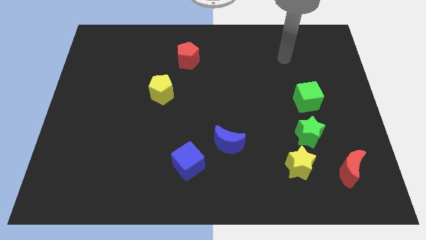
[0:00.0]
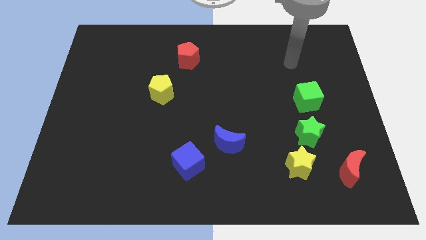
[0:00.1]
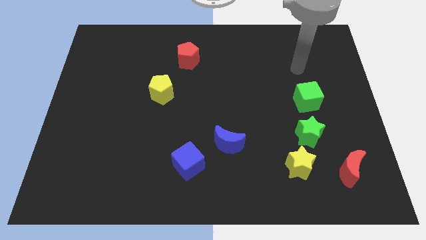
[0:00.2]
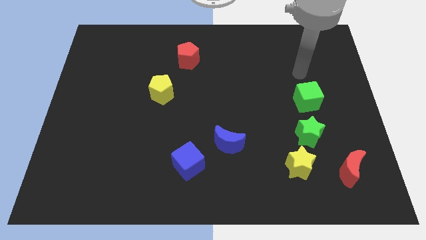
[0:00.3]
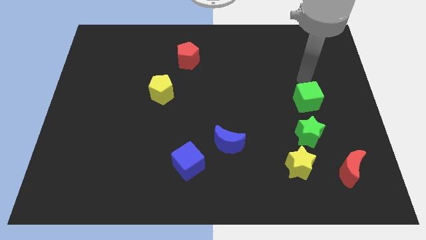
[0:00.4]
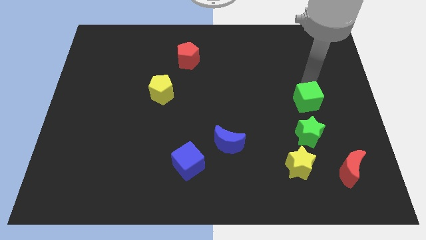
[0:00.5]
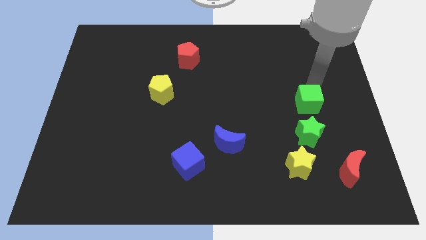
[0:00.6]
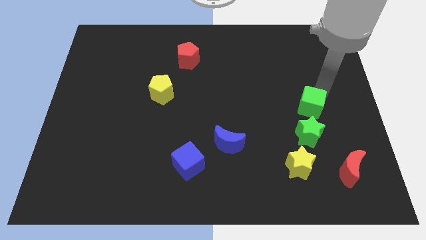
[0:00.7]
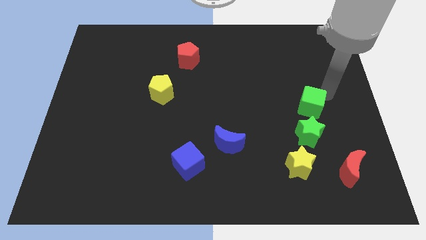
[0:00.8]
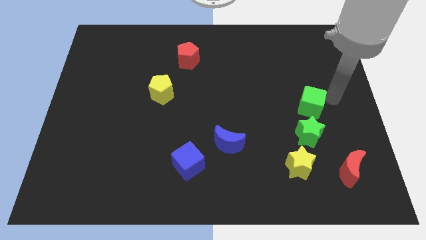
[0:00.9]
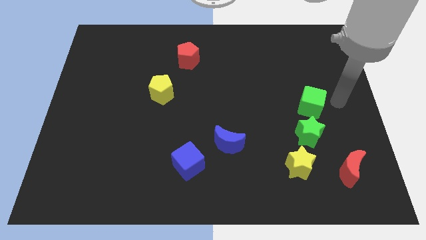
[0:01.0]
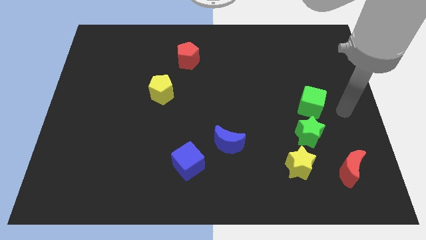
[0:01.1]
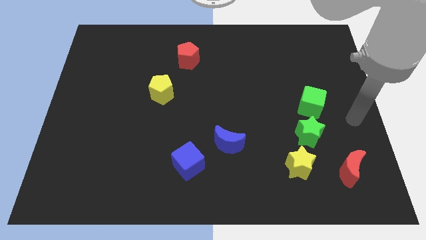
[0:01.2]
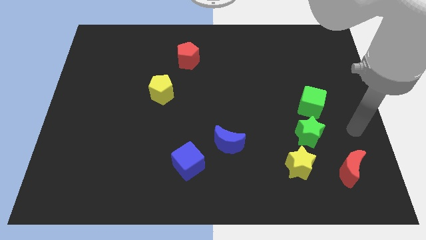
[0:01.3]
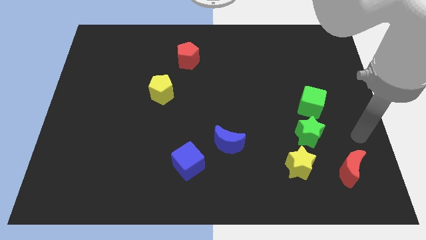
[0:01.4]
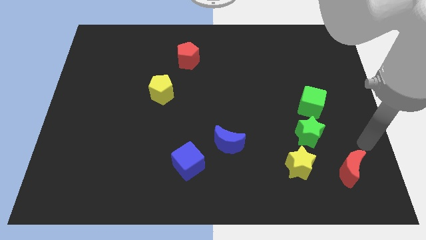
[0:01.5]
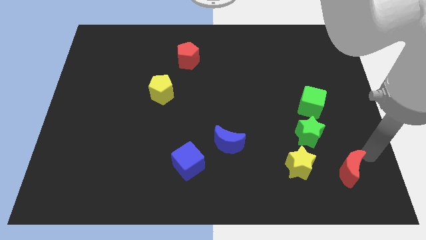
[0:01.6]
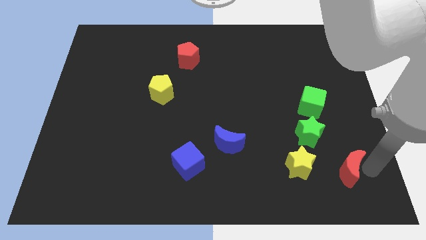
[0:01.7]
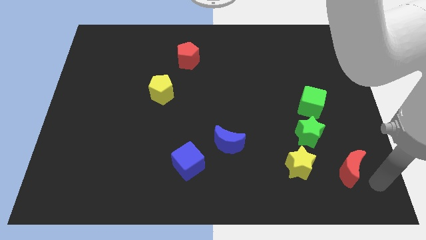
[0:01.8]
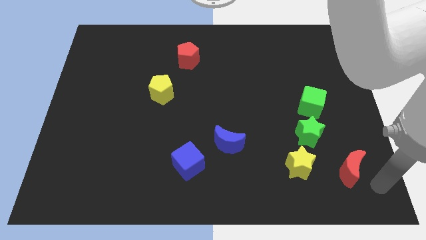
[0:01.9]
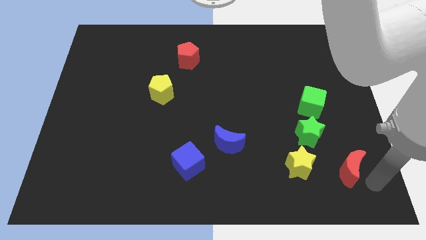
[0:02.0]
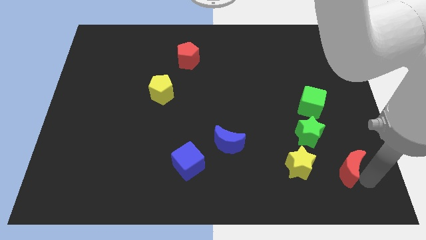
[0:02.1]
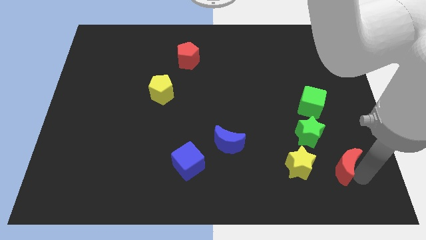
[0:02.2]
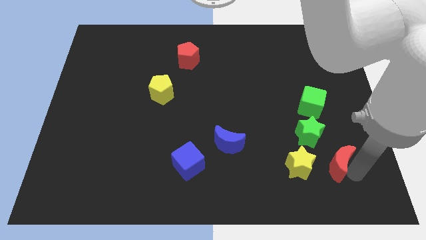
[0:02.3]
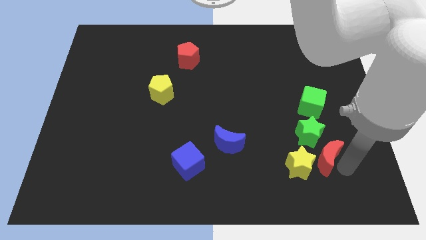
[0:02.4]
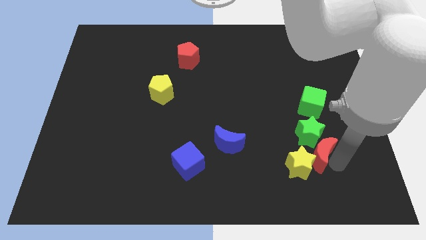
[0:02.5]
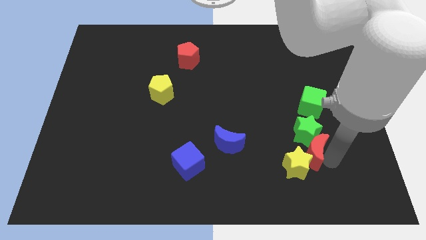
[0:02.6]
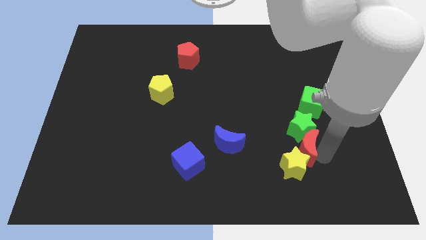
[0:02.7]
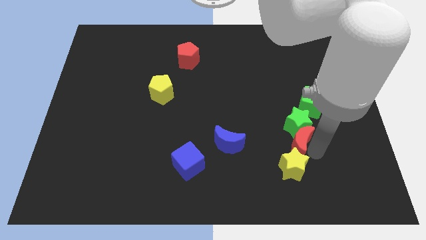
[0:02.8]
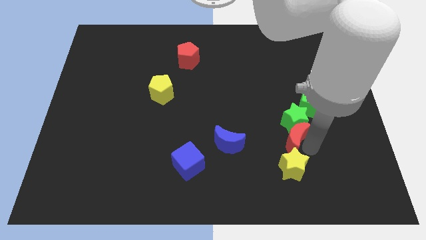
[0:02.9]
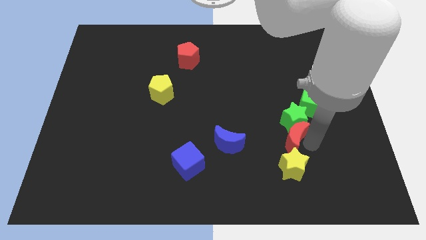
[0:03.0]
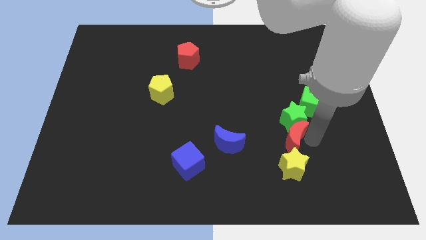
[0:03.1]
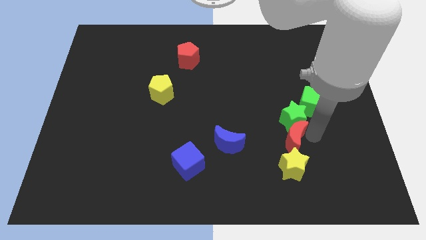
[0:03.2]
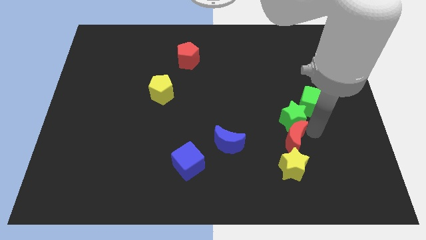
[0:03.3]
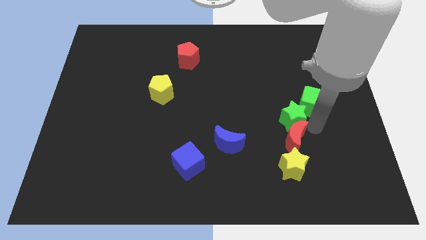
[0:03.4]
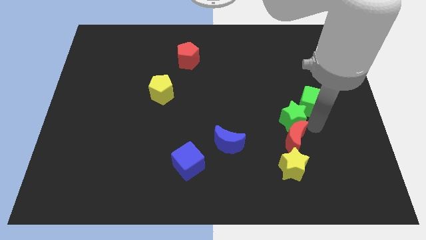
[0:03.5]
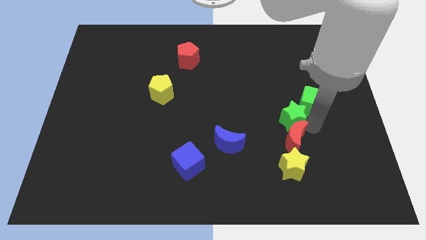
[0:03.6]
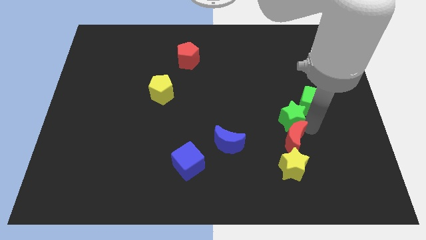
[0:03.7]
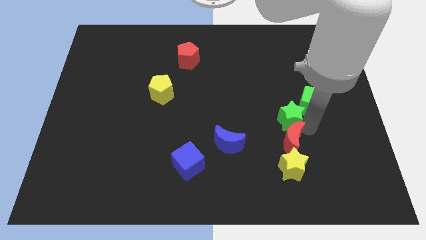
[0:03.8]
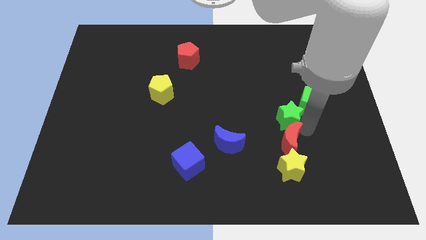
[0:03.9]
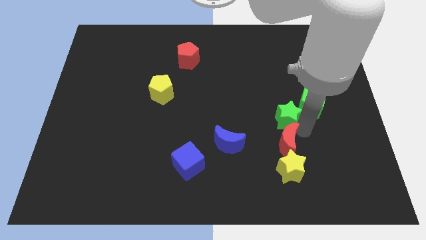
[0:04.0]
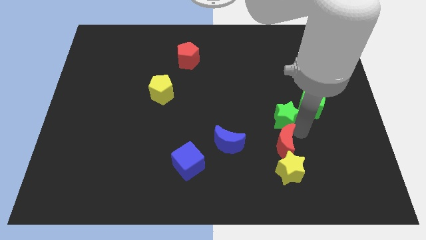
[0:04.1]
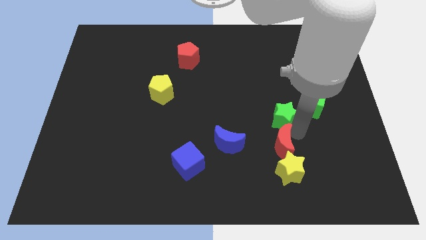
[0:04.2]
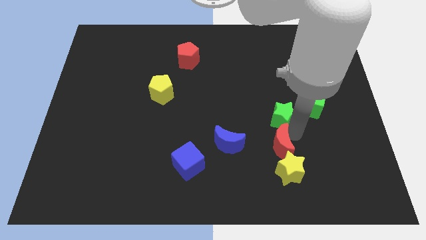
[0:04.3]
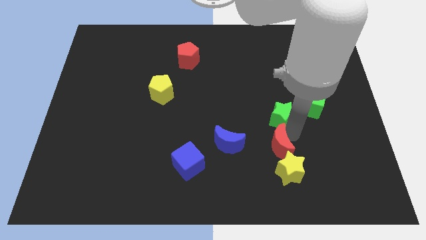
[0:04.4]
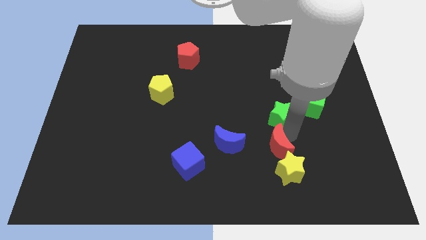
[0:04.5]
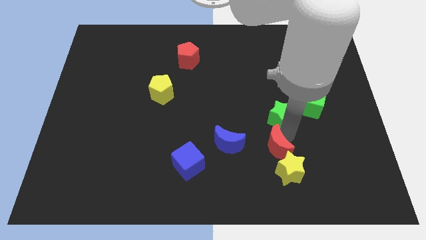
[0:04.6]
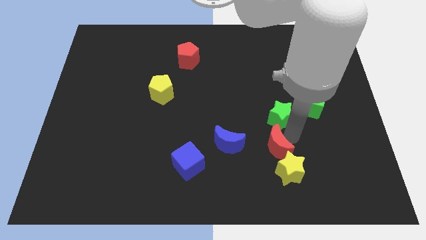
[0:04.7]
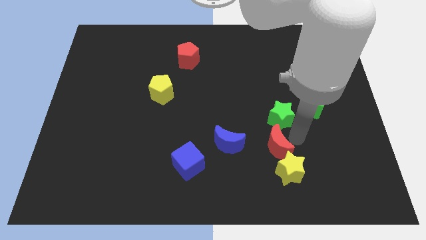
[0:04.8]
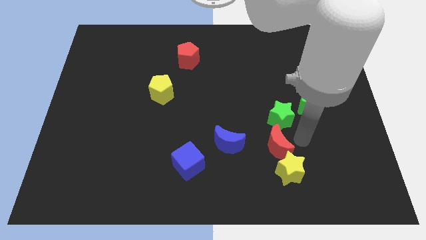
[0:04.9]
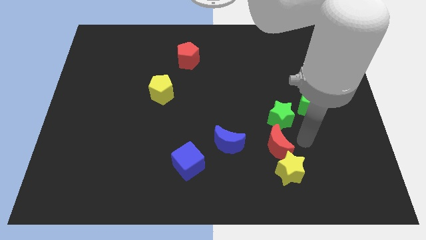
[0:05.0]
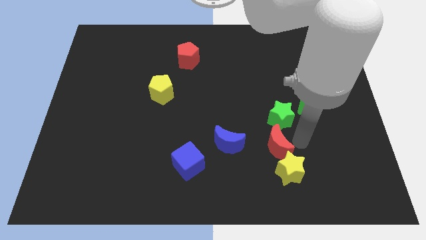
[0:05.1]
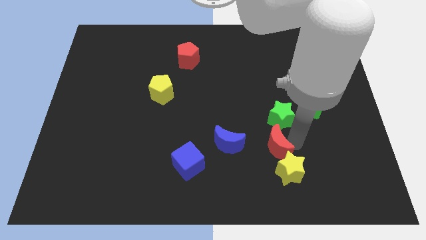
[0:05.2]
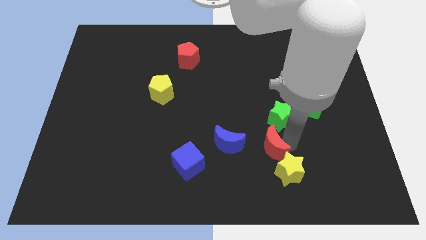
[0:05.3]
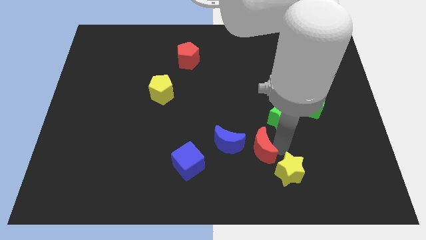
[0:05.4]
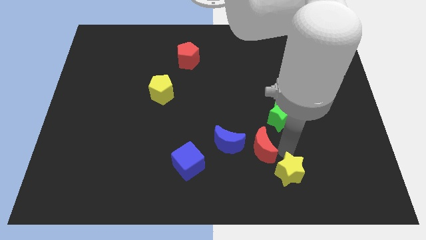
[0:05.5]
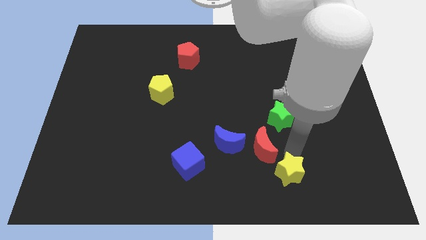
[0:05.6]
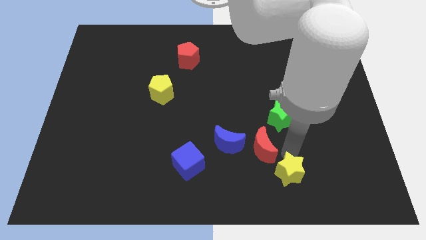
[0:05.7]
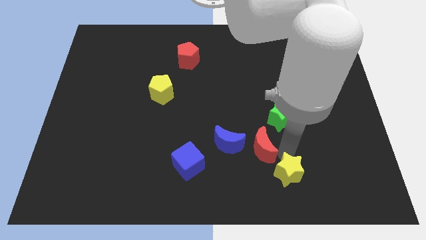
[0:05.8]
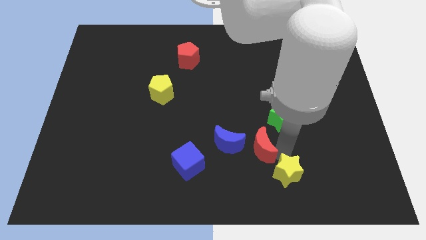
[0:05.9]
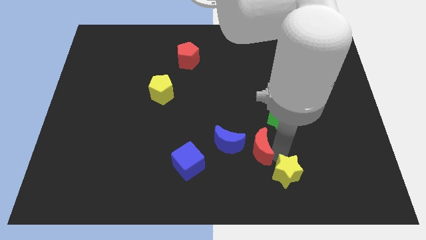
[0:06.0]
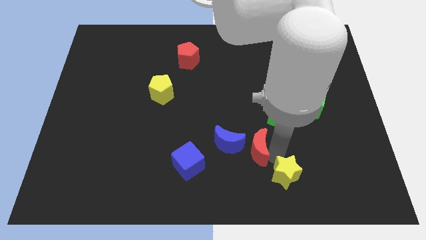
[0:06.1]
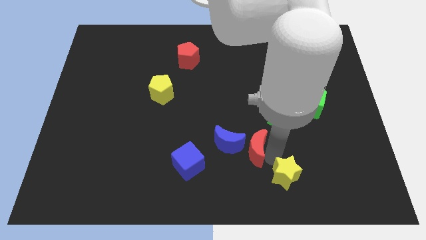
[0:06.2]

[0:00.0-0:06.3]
push the red moon to the blue moon

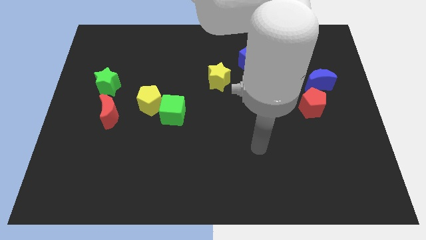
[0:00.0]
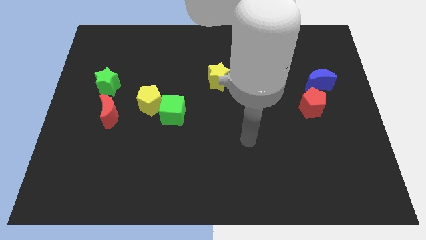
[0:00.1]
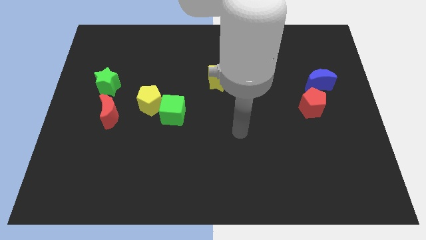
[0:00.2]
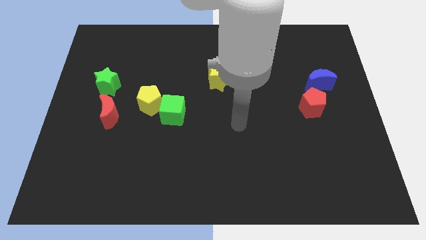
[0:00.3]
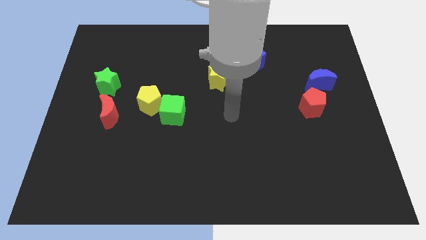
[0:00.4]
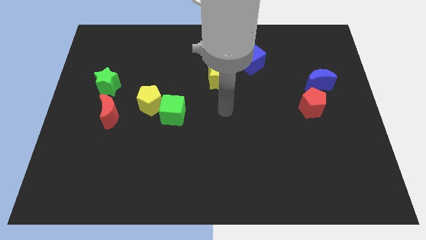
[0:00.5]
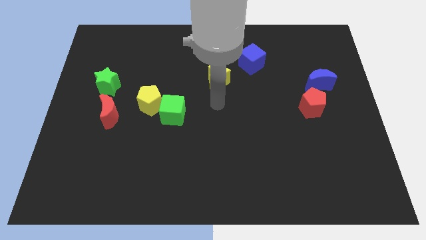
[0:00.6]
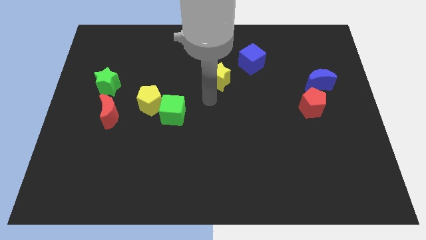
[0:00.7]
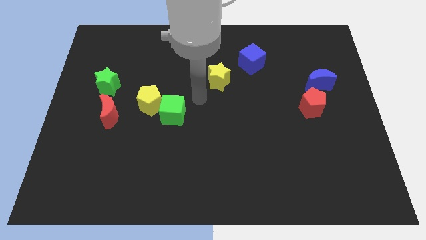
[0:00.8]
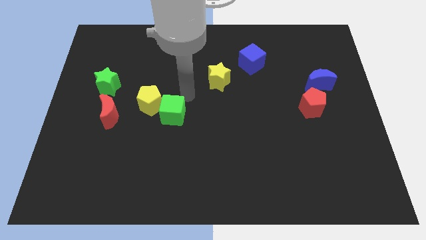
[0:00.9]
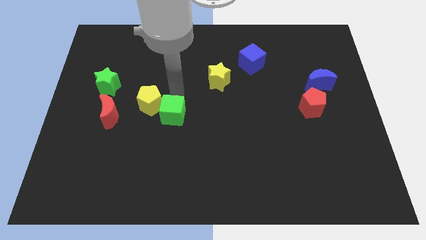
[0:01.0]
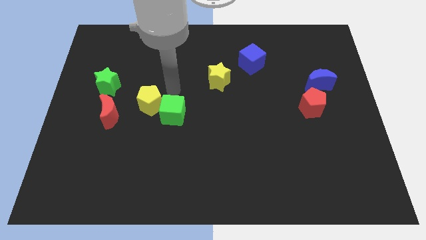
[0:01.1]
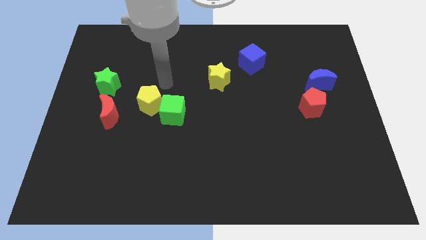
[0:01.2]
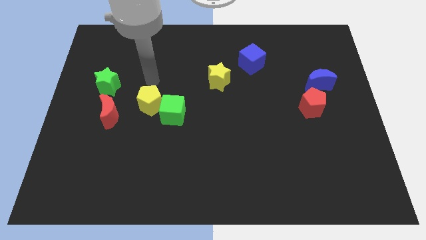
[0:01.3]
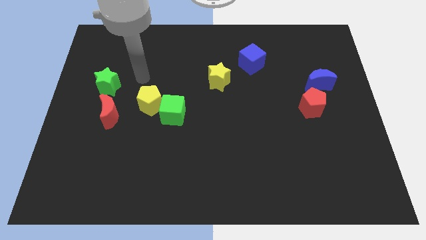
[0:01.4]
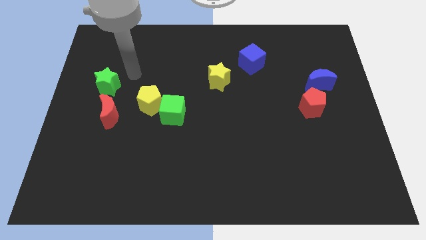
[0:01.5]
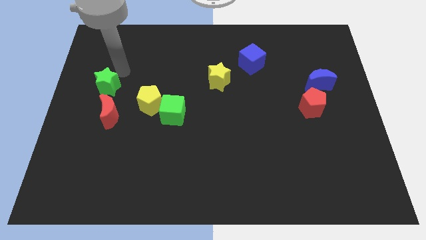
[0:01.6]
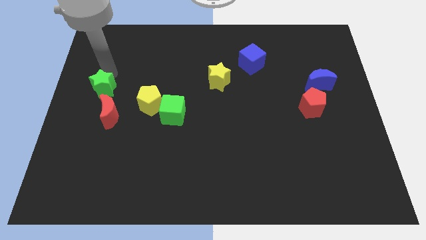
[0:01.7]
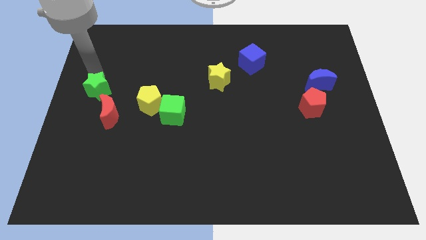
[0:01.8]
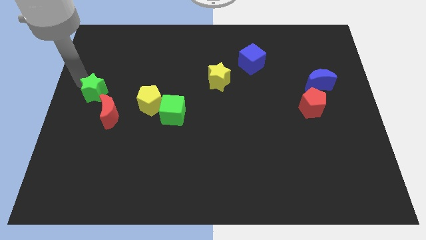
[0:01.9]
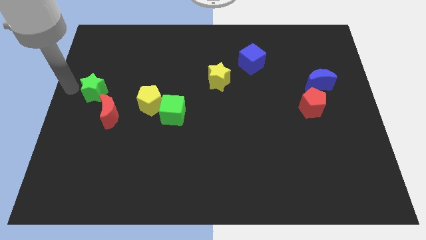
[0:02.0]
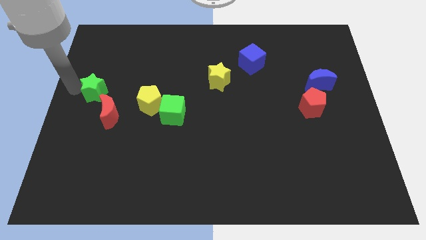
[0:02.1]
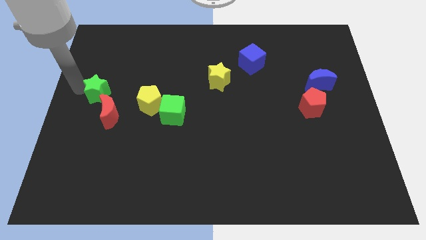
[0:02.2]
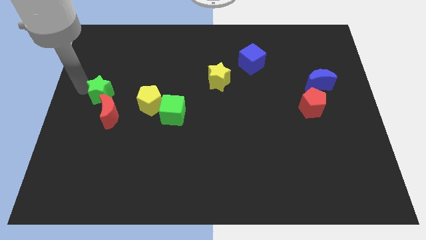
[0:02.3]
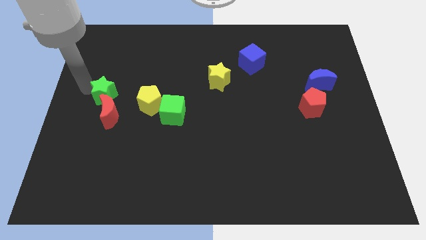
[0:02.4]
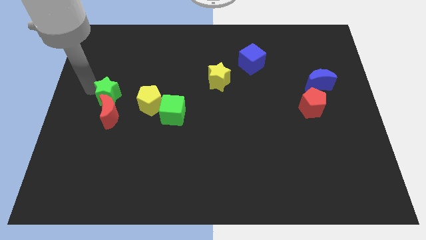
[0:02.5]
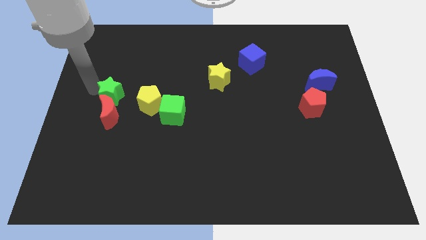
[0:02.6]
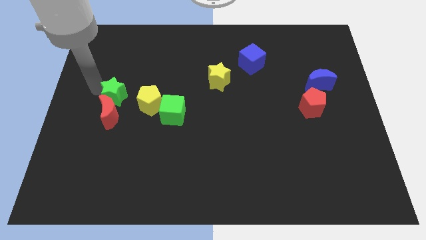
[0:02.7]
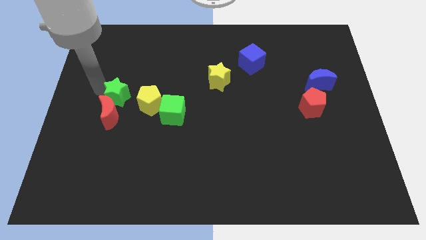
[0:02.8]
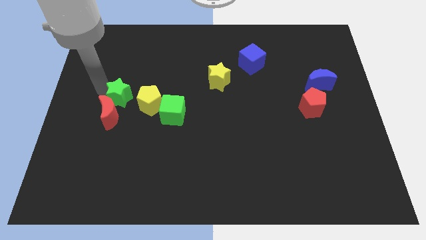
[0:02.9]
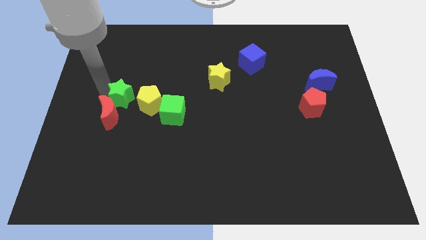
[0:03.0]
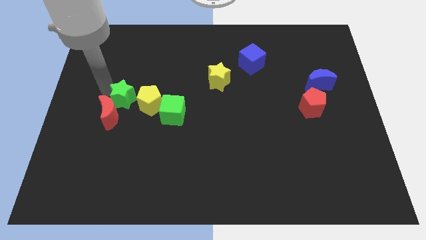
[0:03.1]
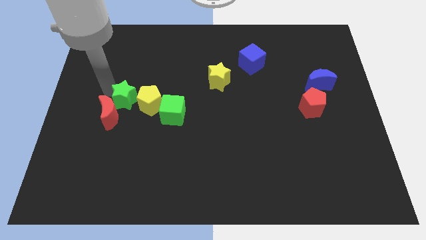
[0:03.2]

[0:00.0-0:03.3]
slide the green star close to the yellow pentagon
